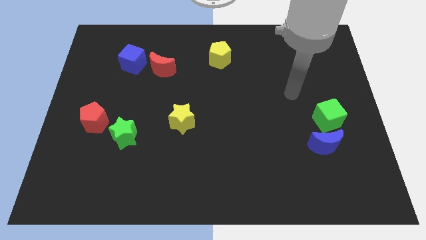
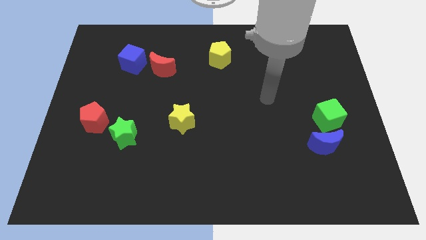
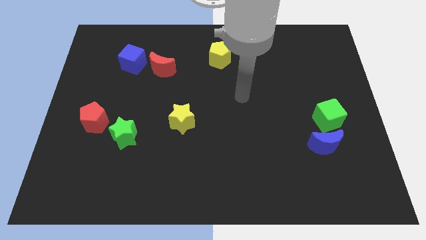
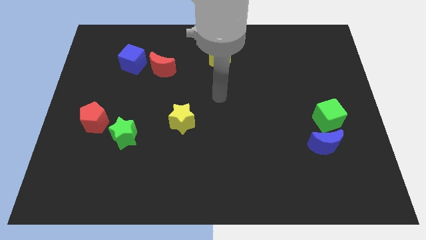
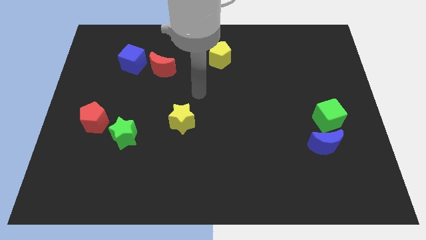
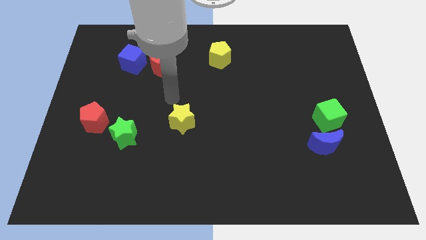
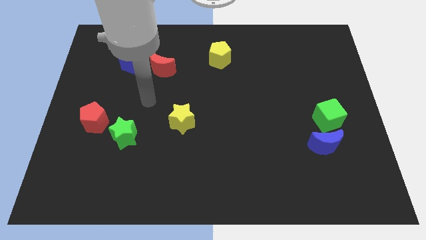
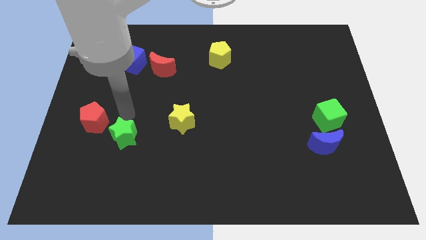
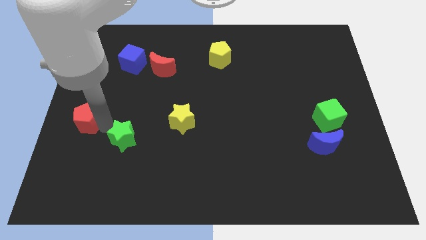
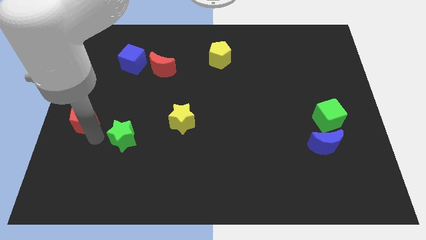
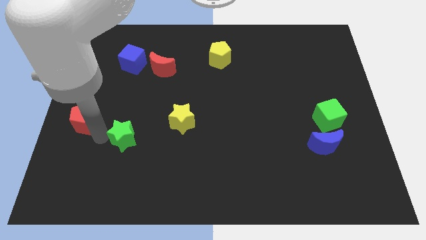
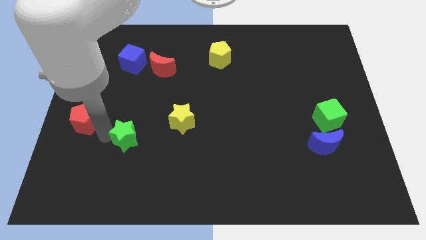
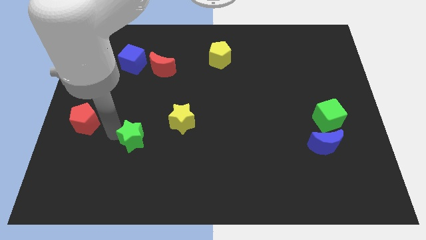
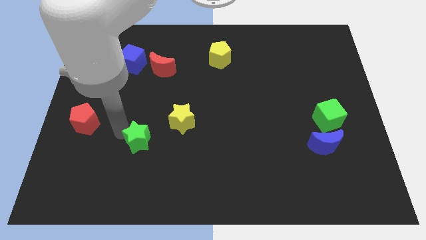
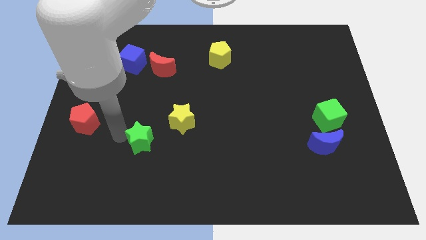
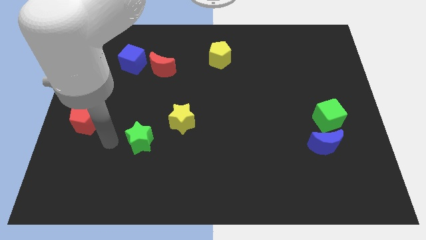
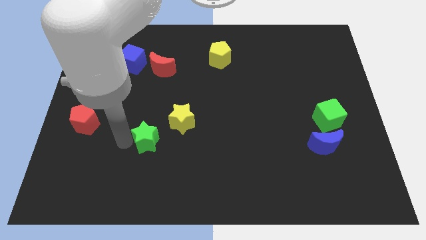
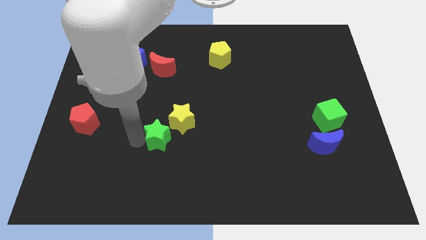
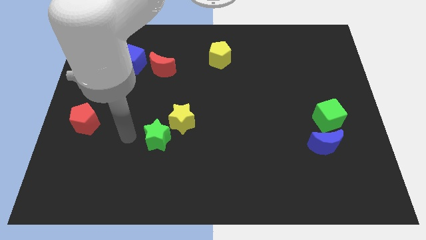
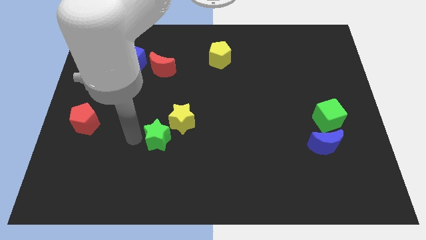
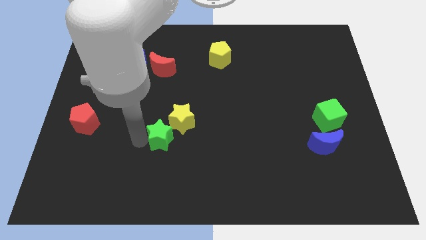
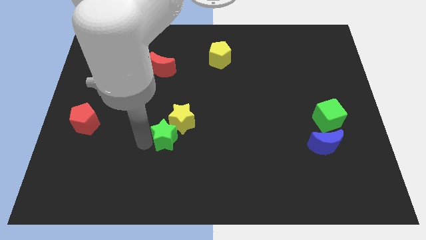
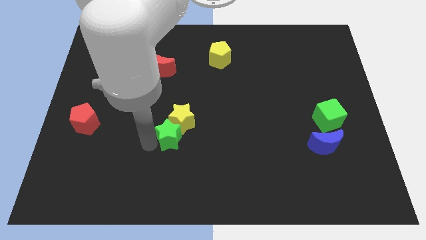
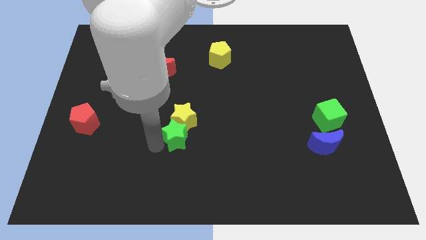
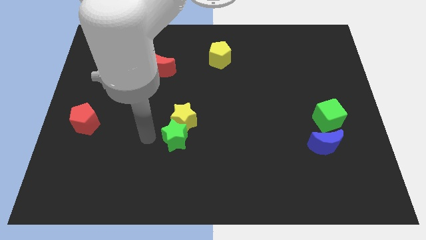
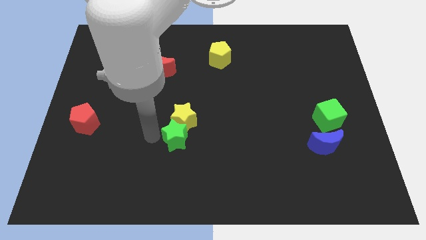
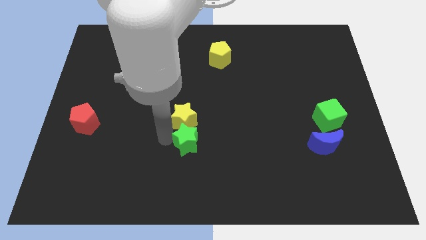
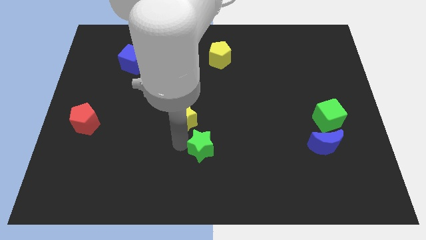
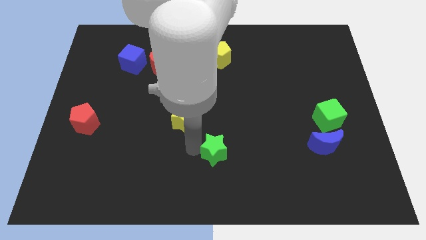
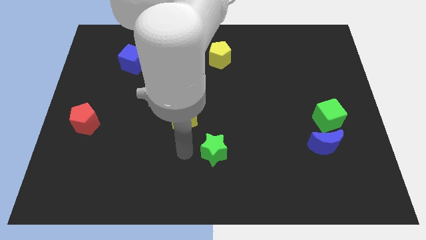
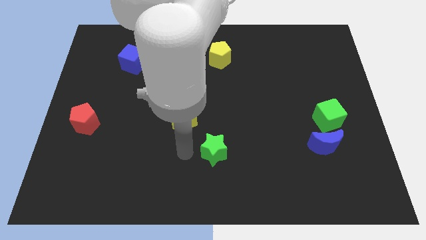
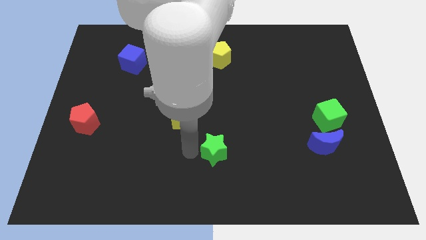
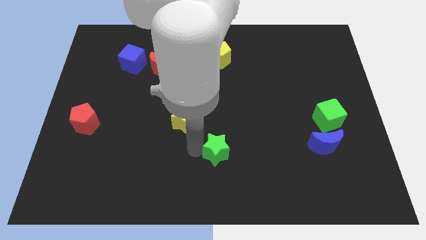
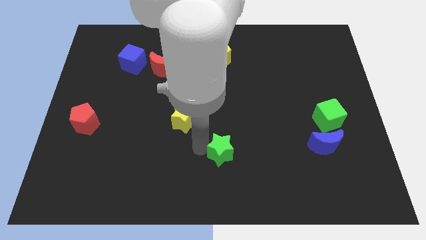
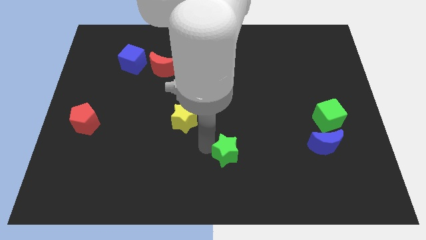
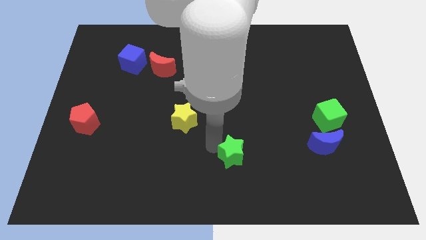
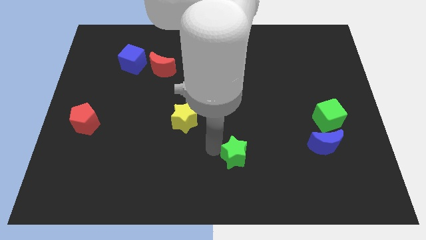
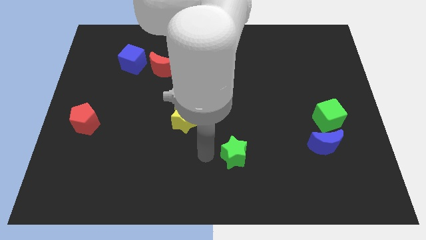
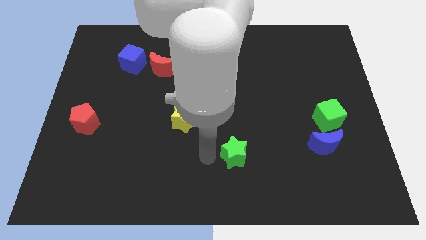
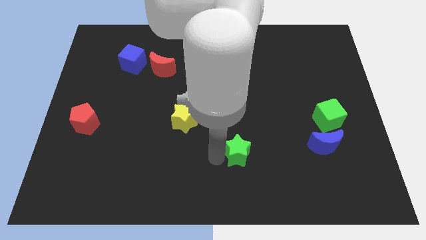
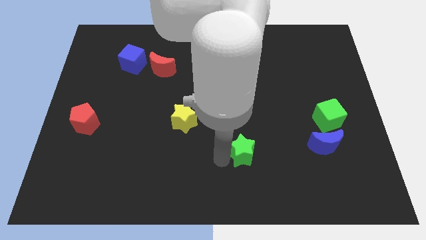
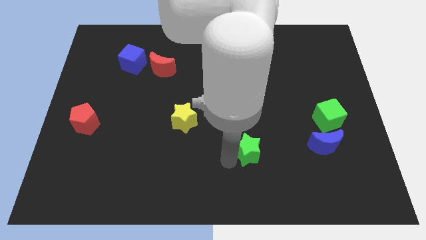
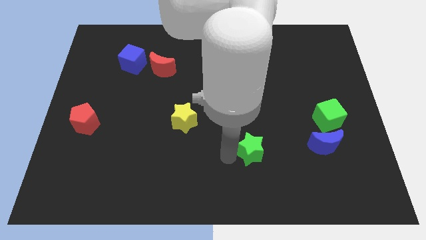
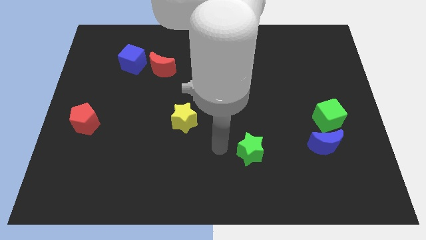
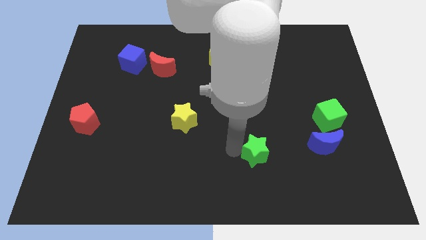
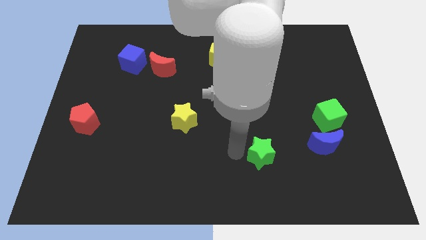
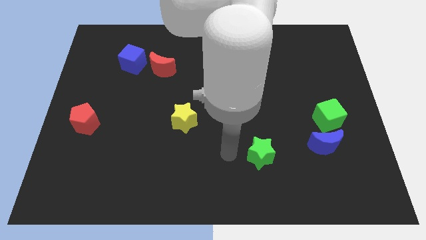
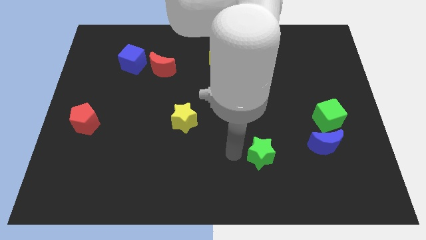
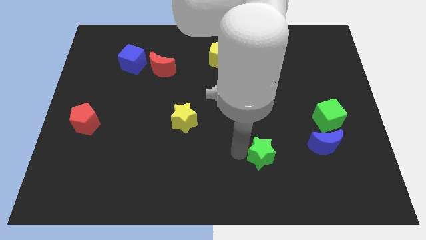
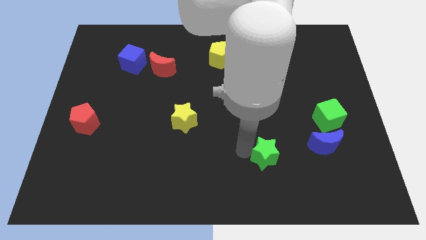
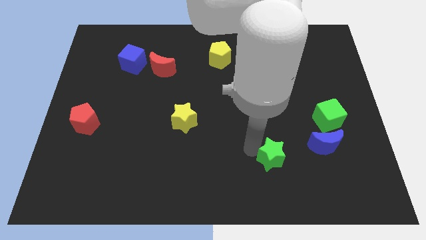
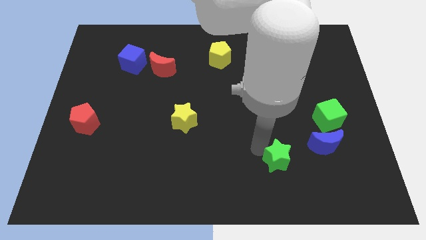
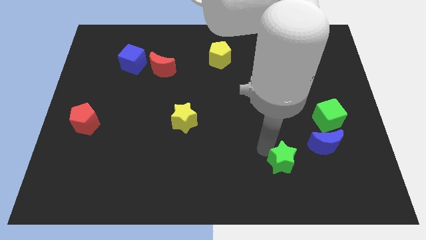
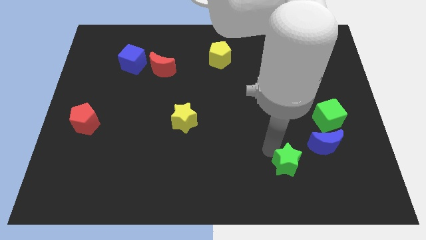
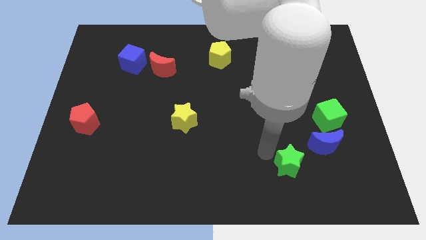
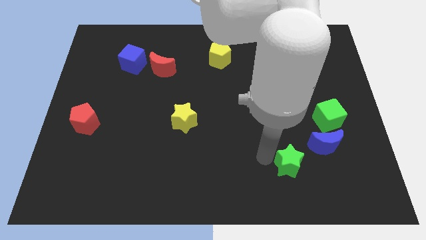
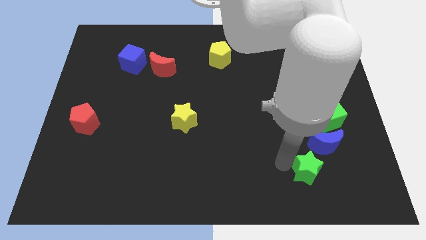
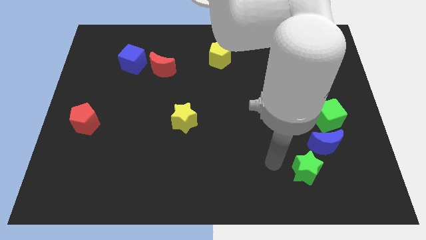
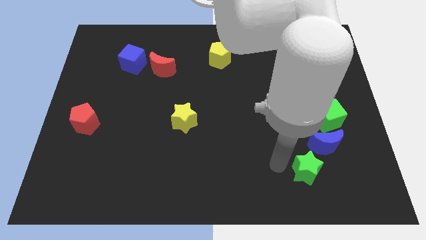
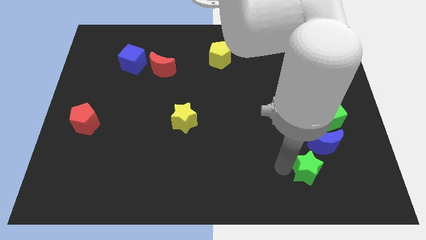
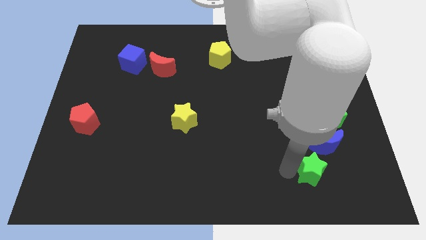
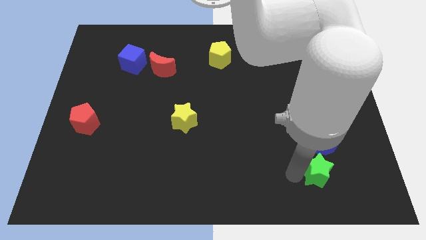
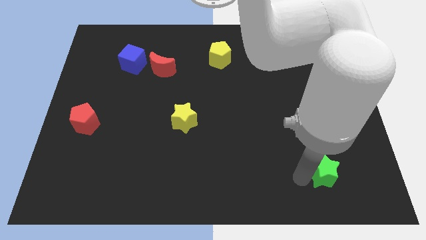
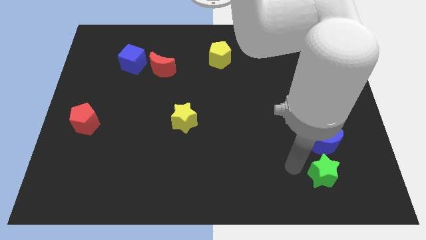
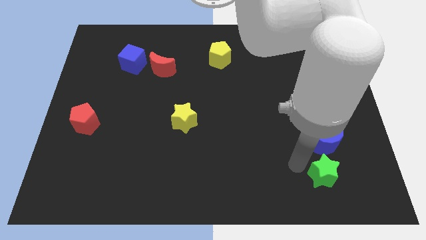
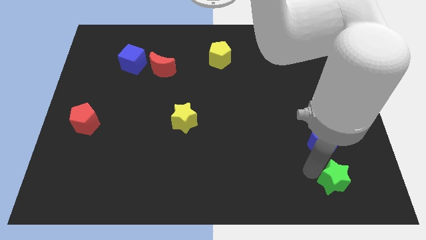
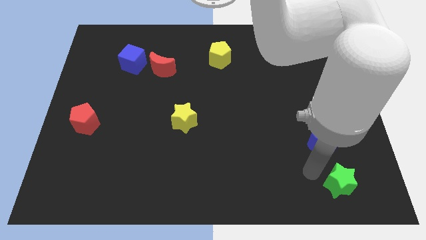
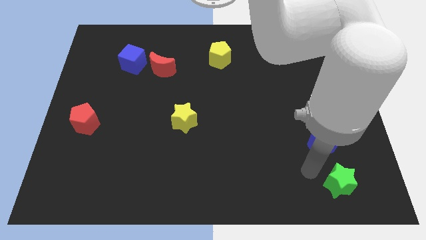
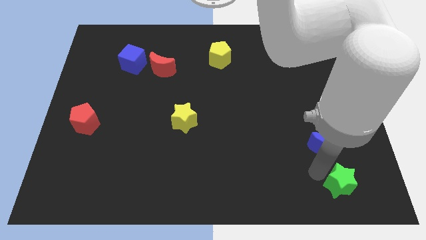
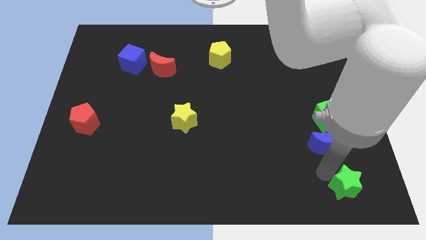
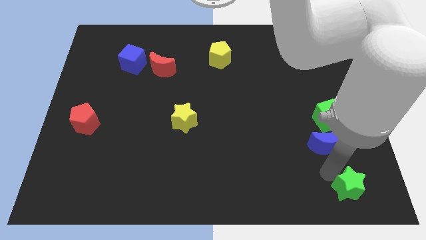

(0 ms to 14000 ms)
put the green star to the bottom right of the board
